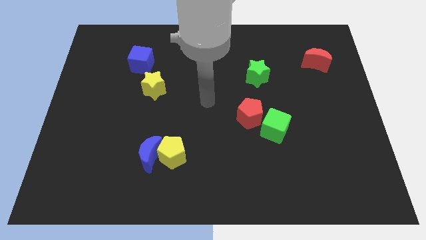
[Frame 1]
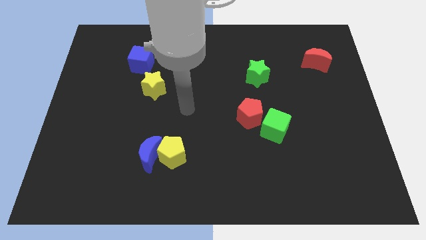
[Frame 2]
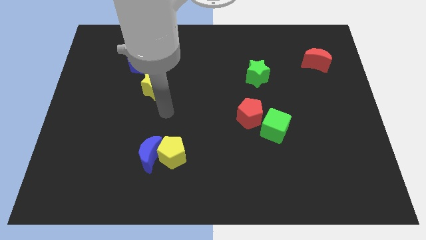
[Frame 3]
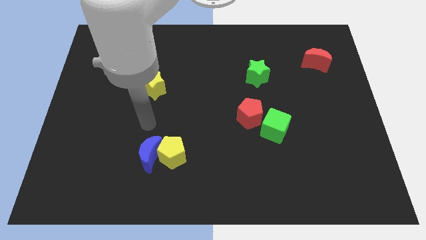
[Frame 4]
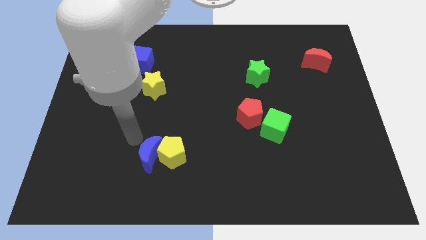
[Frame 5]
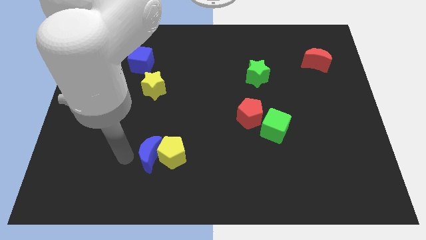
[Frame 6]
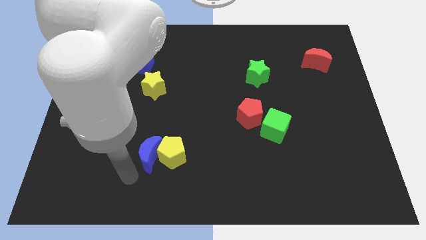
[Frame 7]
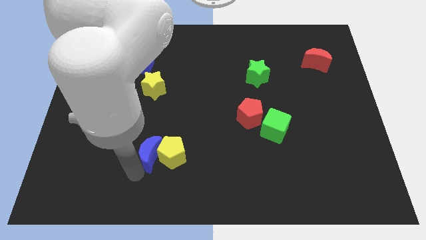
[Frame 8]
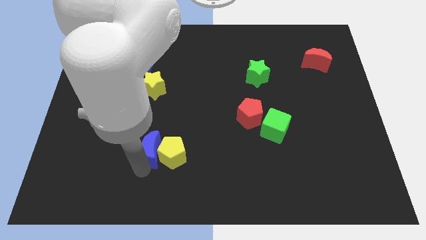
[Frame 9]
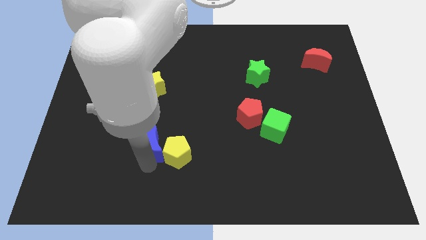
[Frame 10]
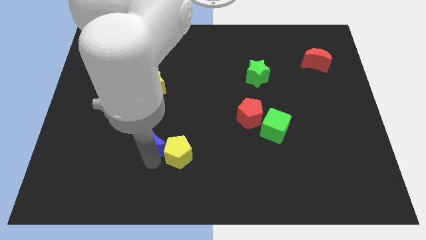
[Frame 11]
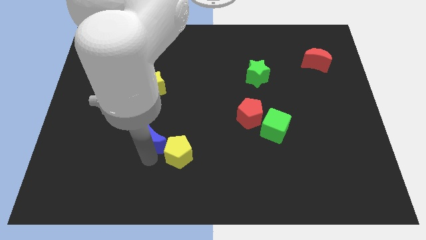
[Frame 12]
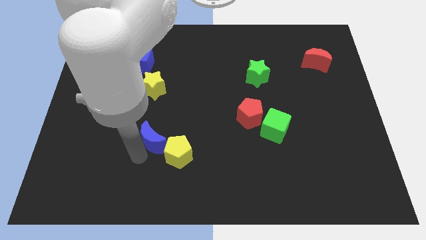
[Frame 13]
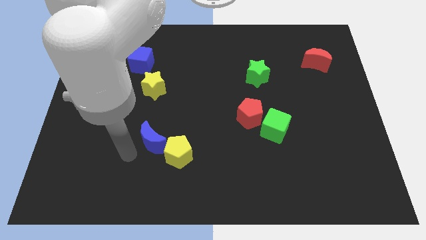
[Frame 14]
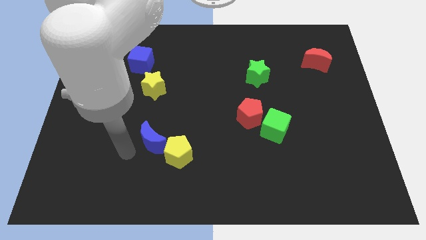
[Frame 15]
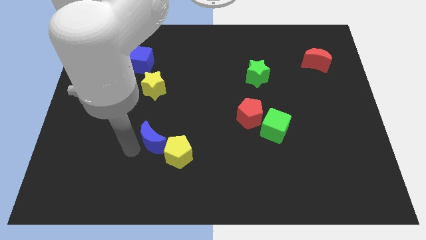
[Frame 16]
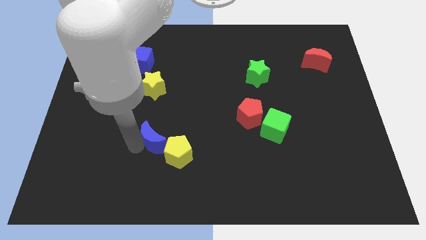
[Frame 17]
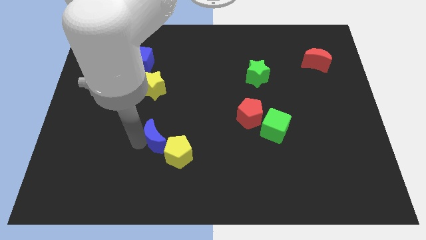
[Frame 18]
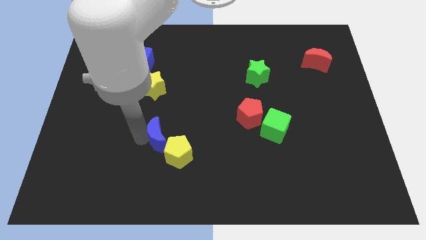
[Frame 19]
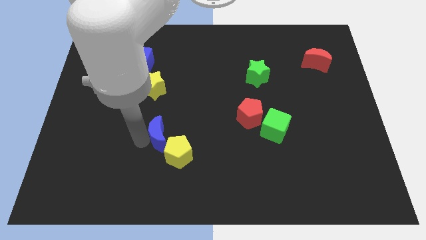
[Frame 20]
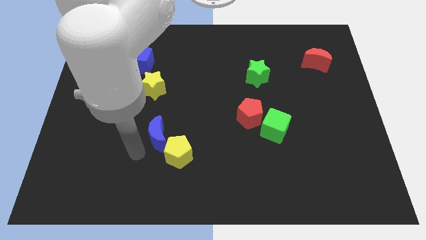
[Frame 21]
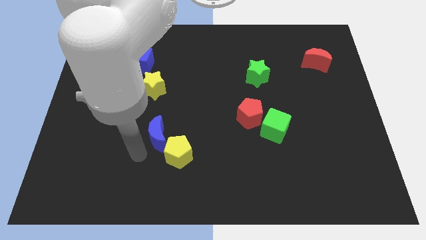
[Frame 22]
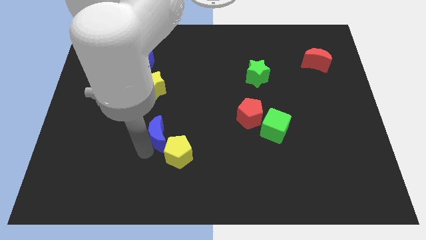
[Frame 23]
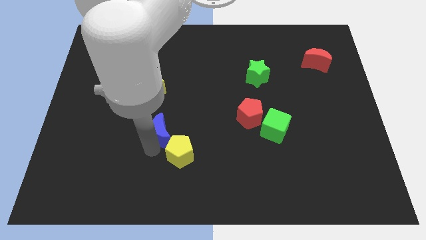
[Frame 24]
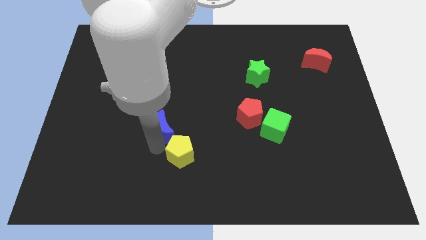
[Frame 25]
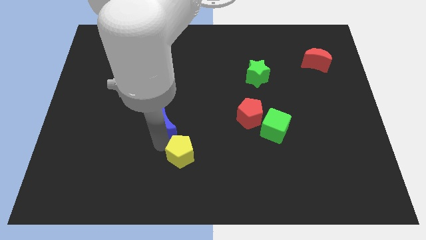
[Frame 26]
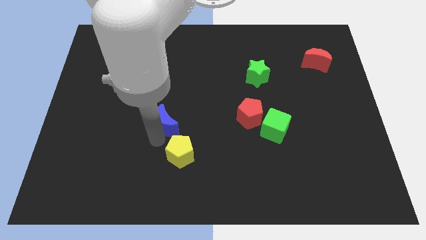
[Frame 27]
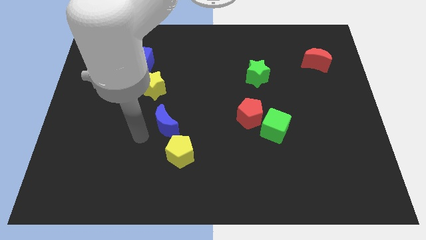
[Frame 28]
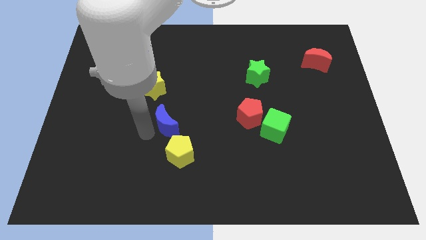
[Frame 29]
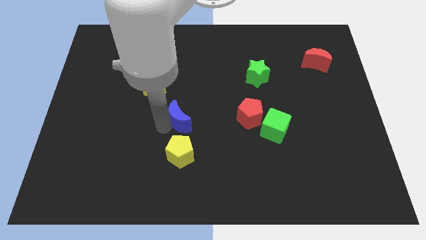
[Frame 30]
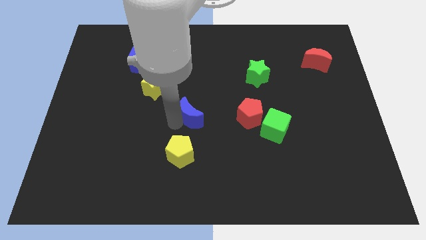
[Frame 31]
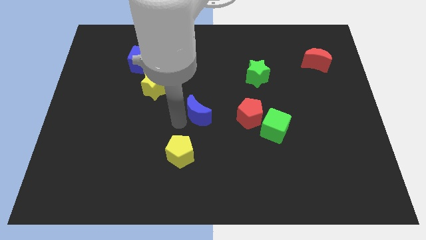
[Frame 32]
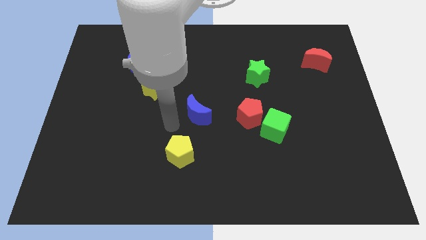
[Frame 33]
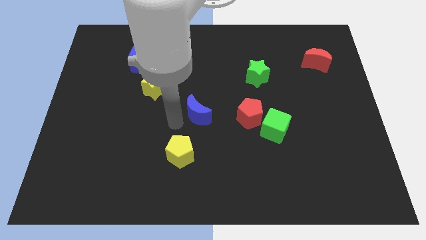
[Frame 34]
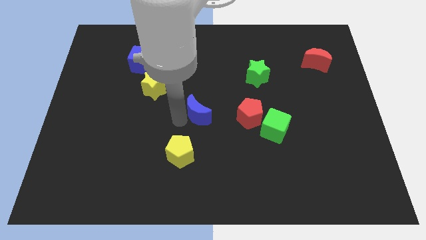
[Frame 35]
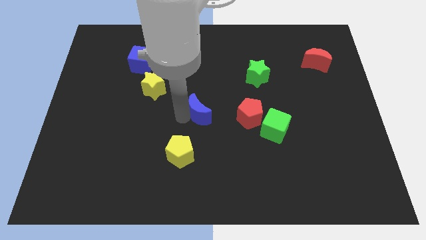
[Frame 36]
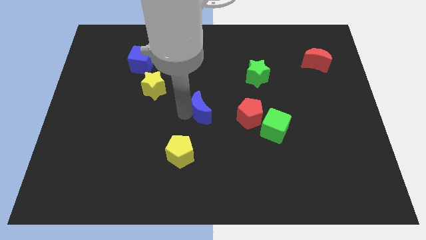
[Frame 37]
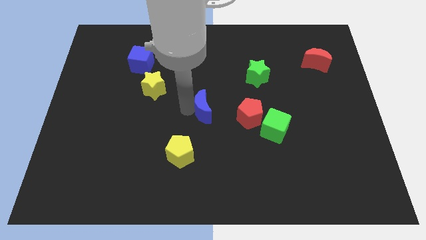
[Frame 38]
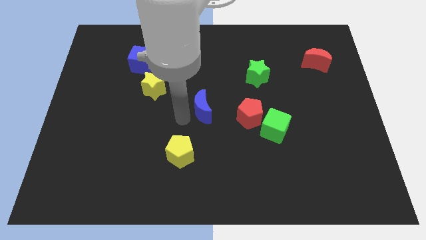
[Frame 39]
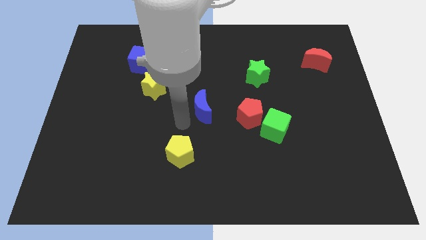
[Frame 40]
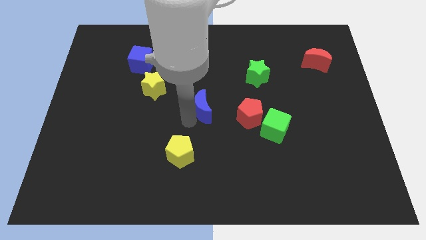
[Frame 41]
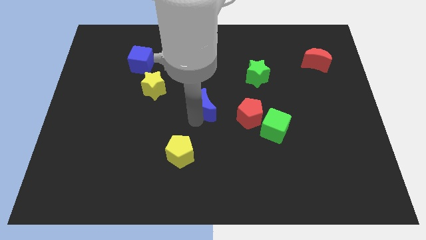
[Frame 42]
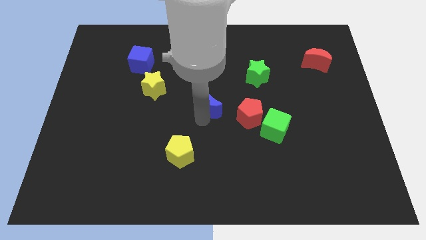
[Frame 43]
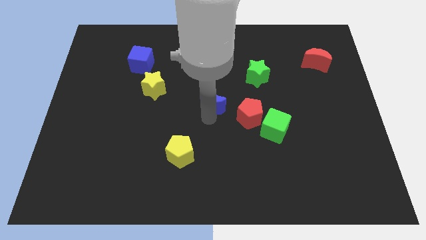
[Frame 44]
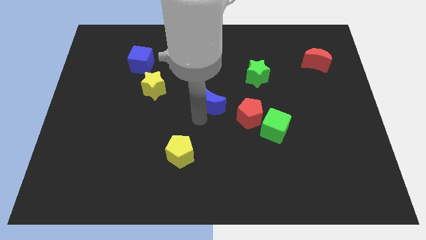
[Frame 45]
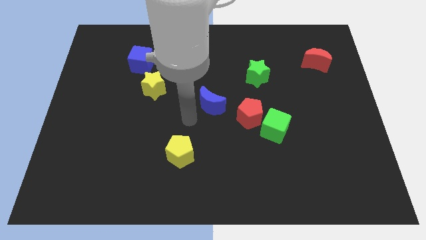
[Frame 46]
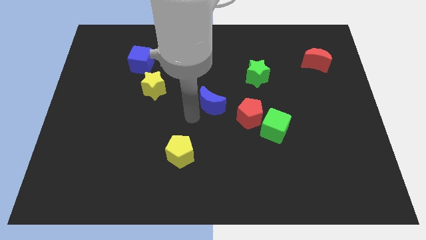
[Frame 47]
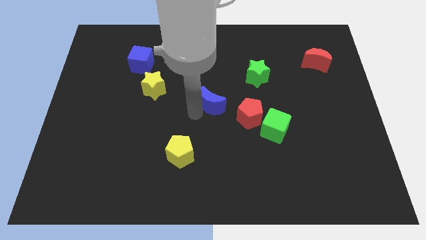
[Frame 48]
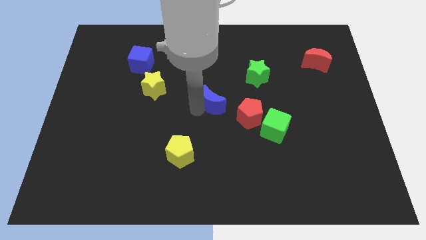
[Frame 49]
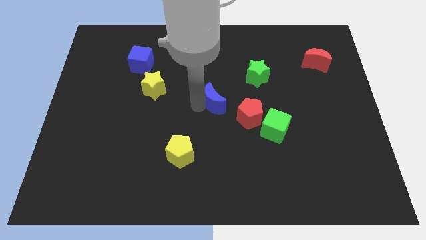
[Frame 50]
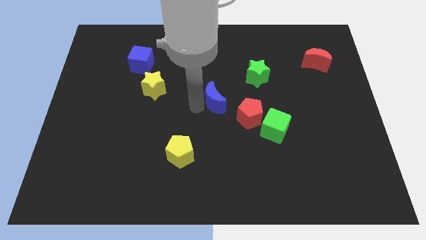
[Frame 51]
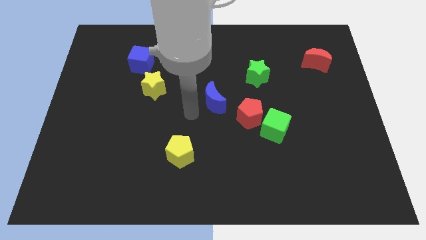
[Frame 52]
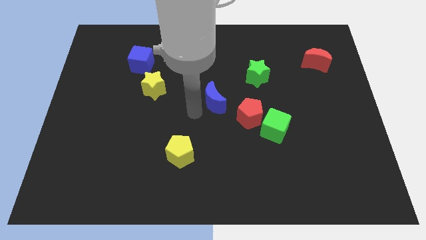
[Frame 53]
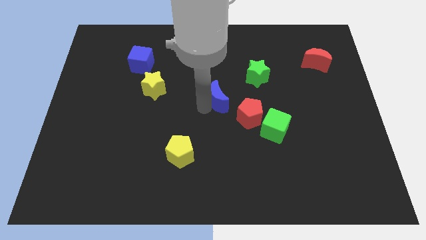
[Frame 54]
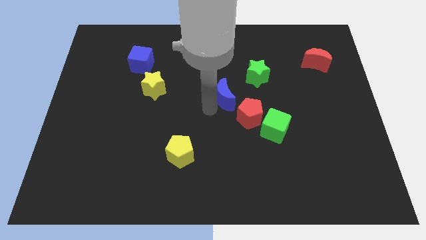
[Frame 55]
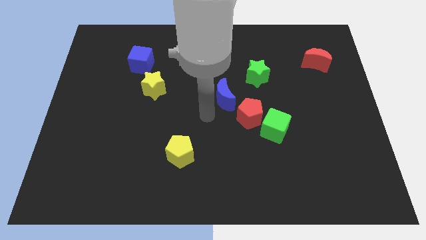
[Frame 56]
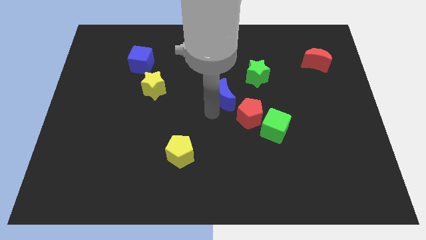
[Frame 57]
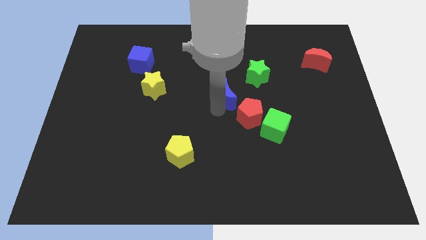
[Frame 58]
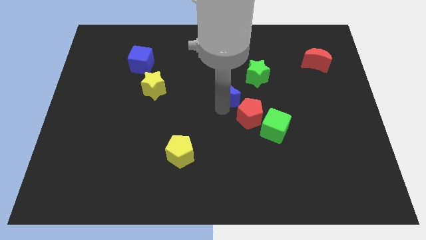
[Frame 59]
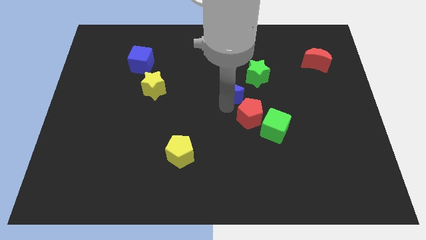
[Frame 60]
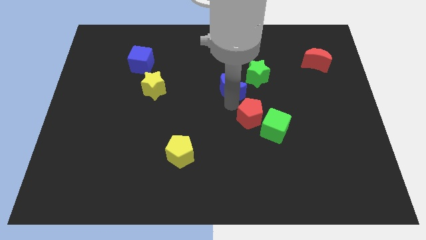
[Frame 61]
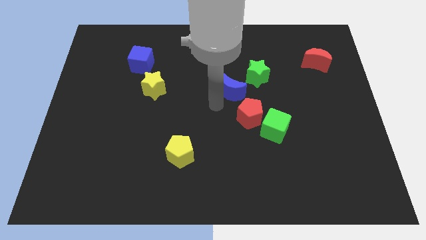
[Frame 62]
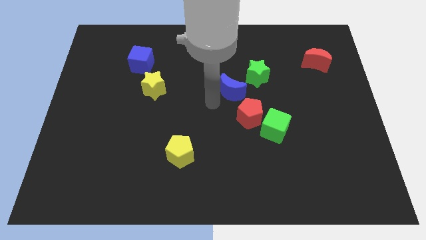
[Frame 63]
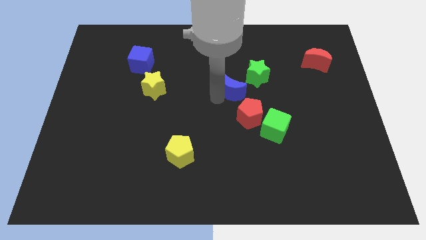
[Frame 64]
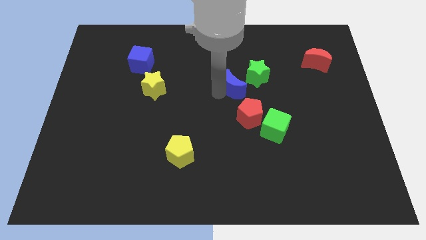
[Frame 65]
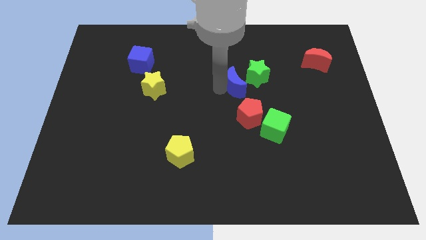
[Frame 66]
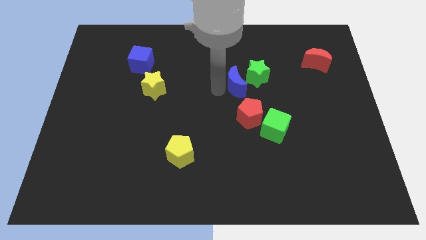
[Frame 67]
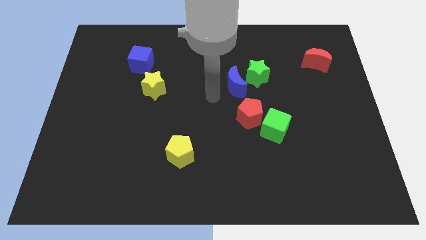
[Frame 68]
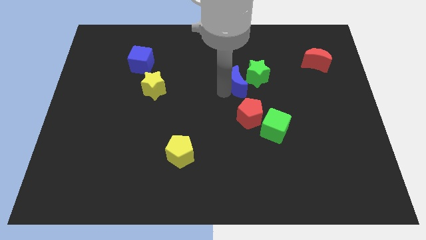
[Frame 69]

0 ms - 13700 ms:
put the blue moon to the green star
